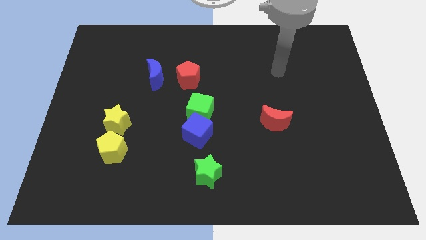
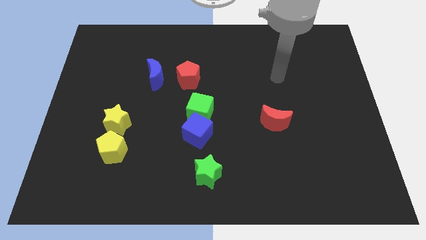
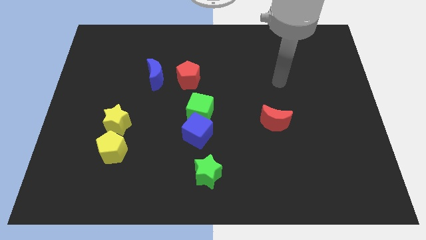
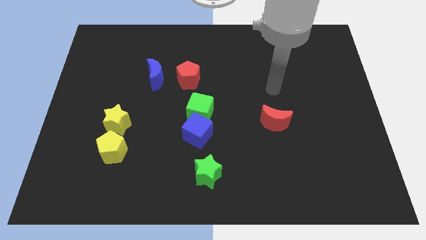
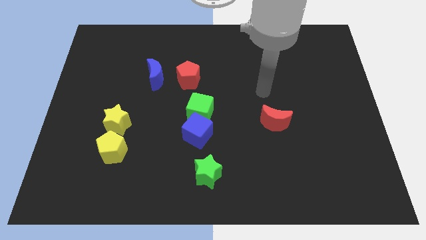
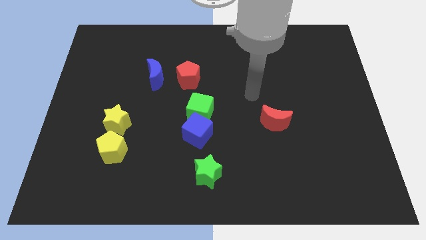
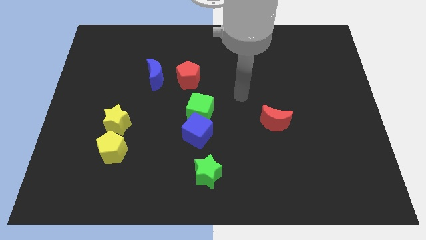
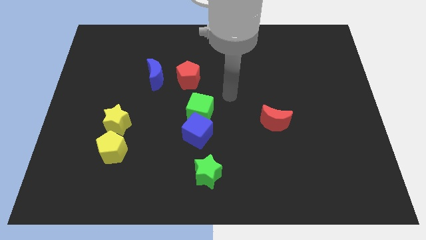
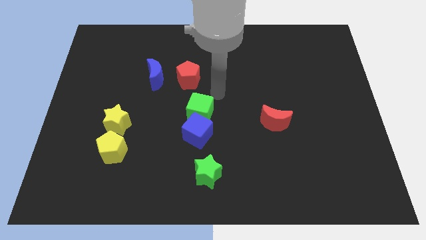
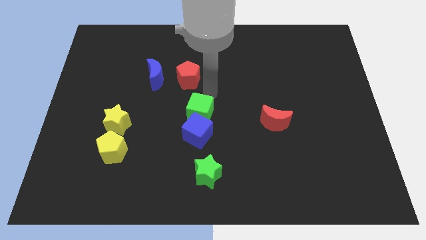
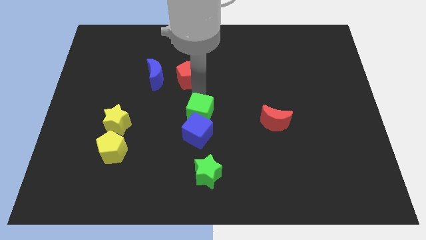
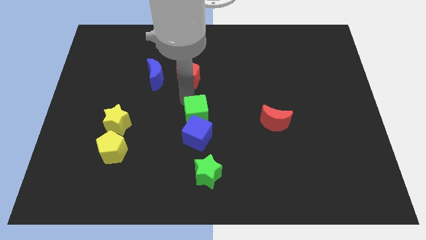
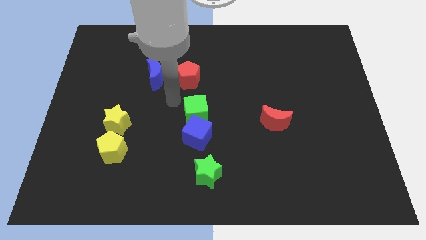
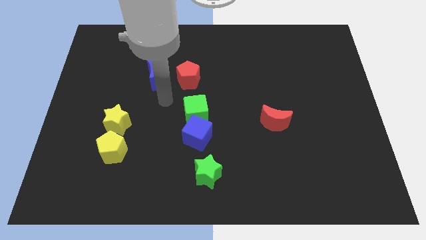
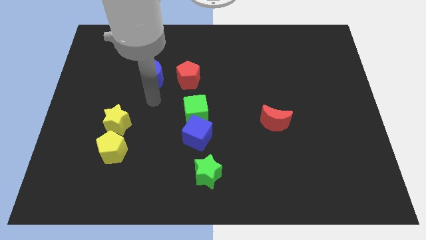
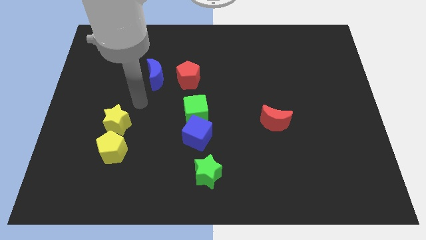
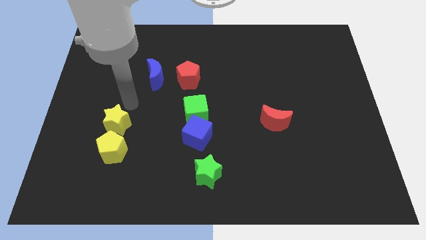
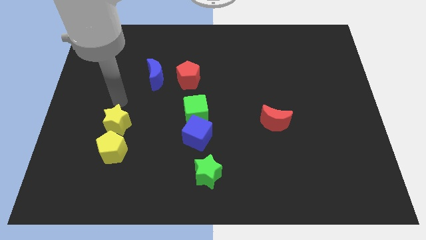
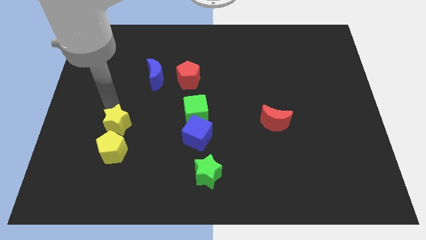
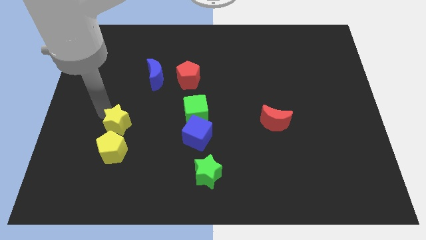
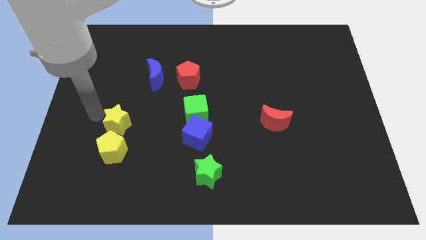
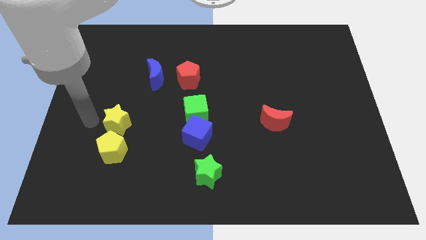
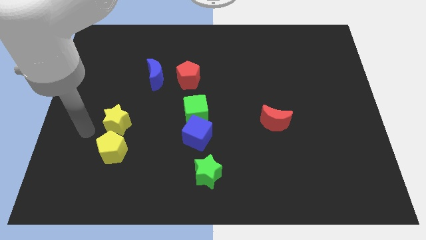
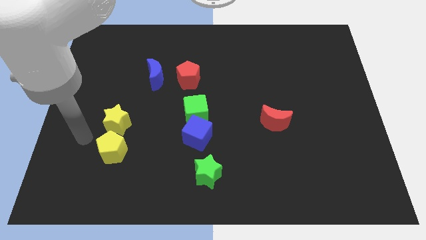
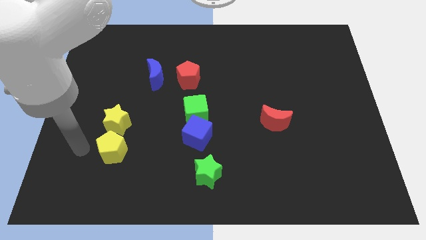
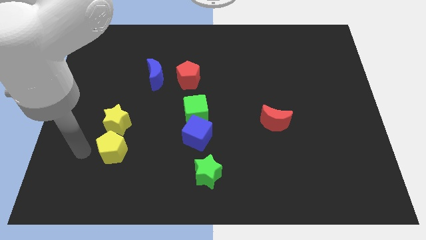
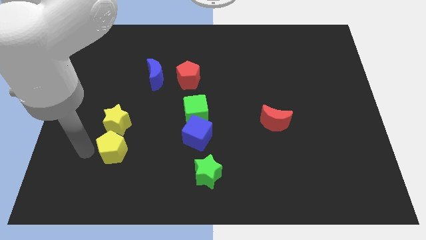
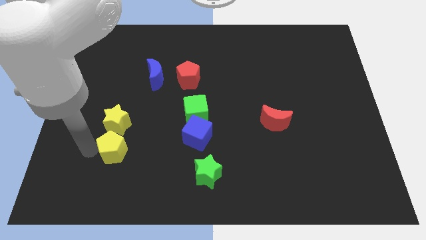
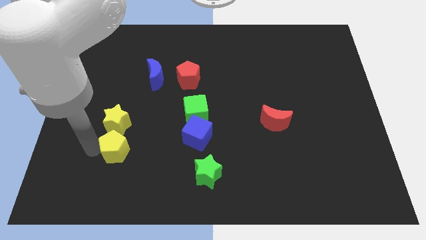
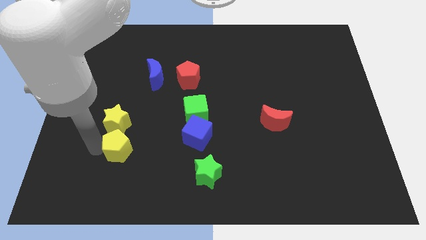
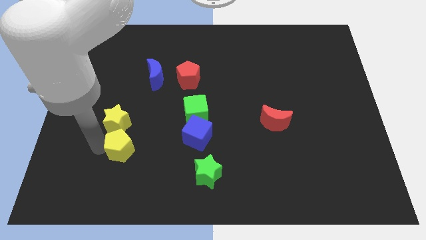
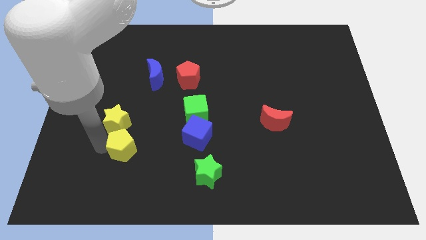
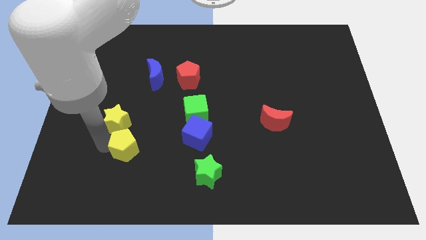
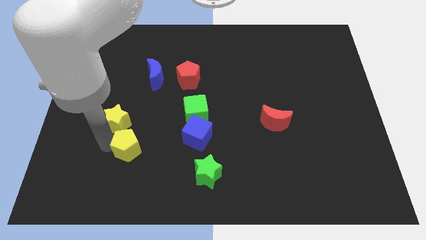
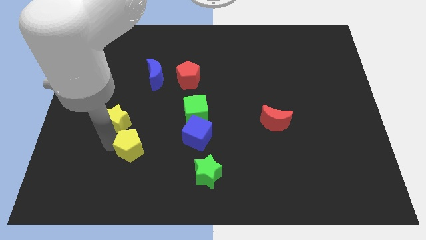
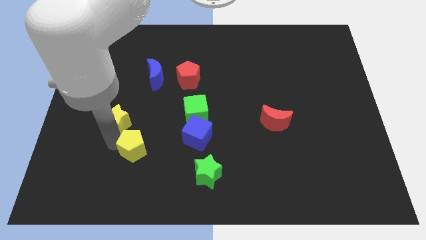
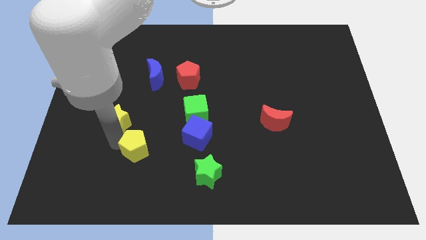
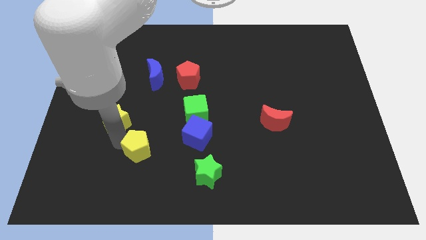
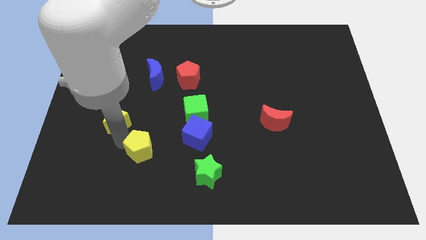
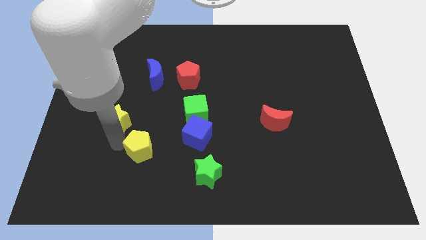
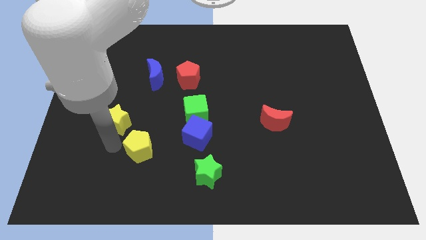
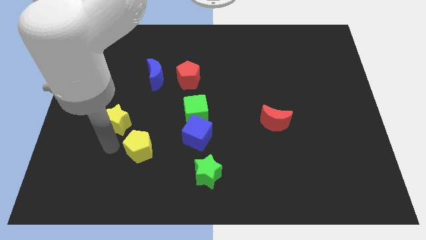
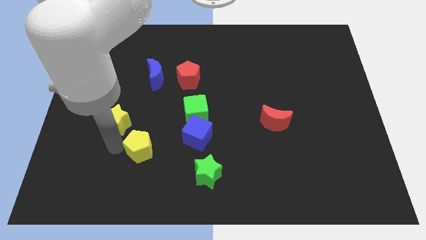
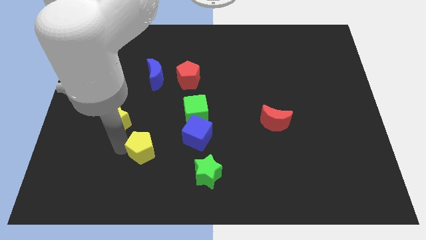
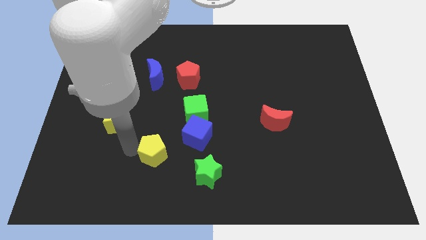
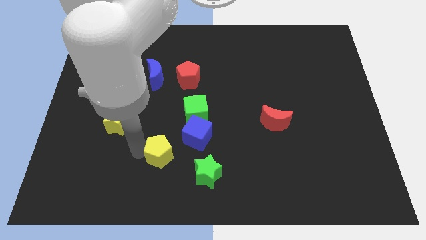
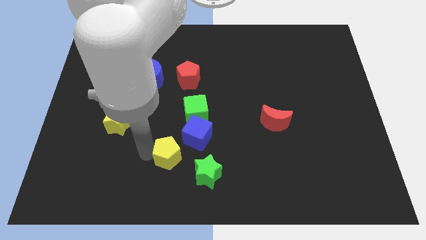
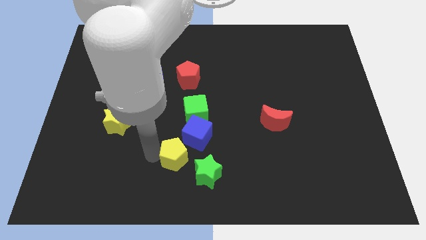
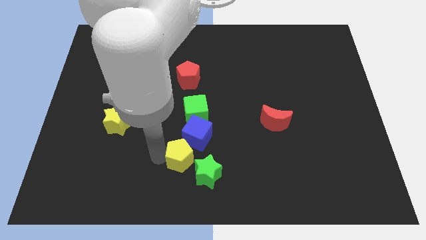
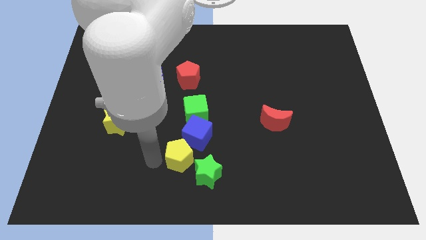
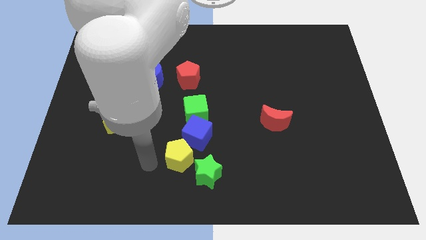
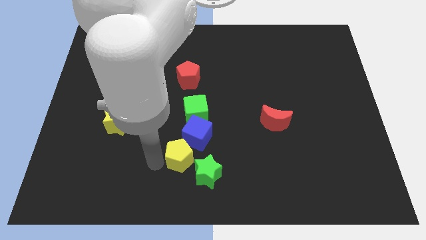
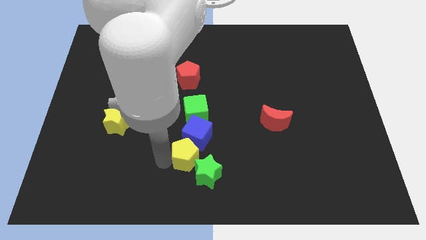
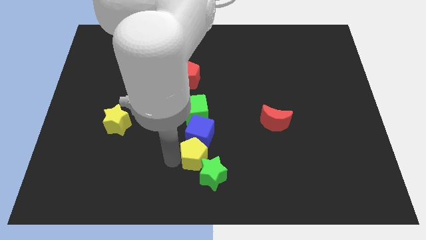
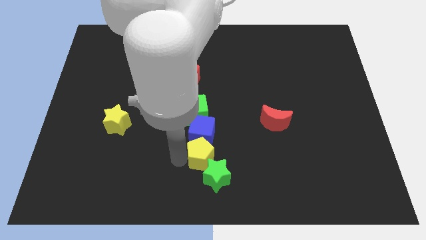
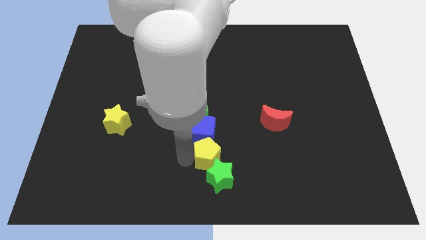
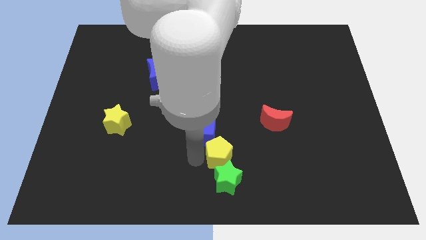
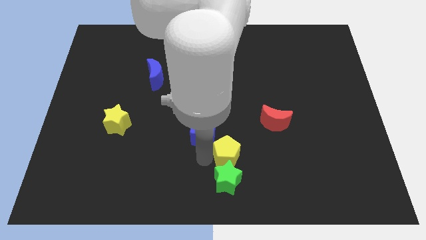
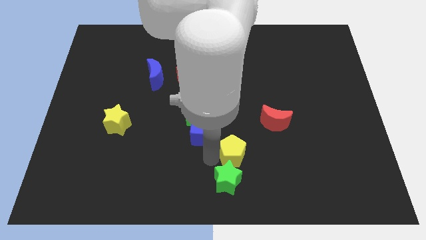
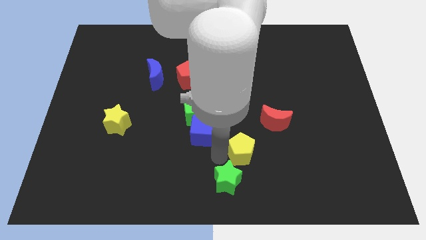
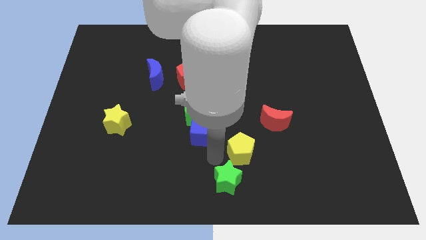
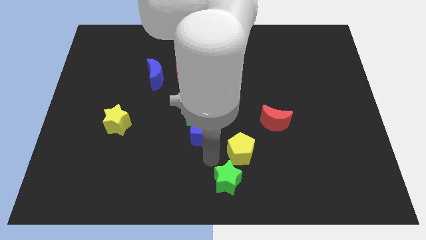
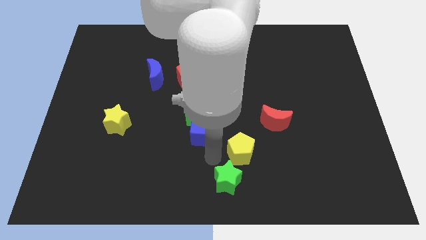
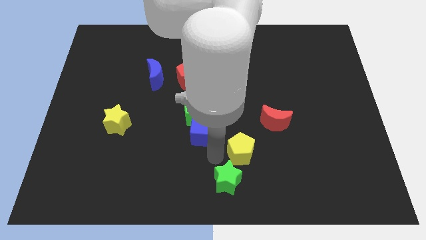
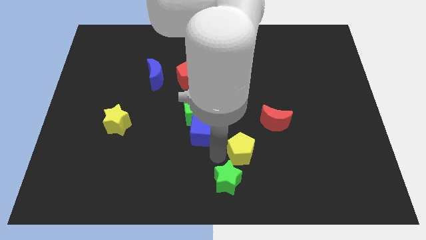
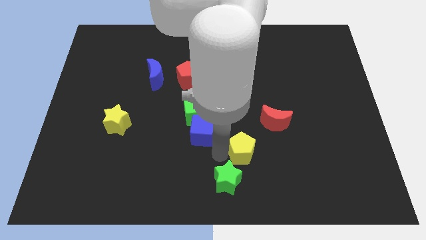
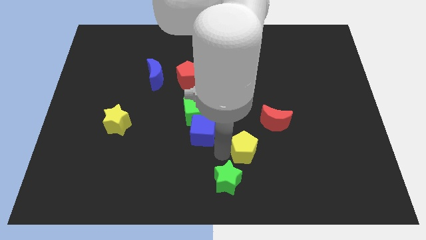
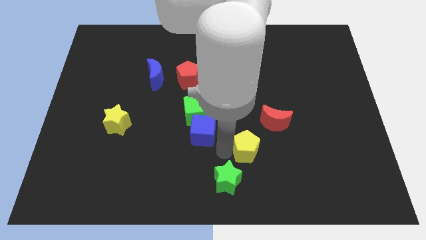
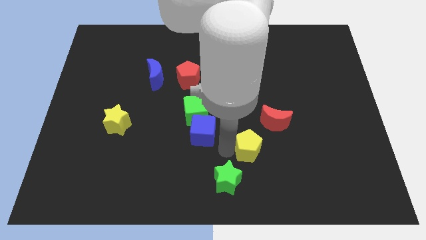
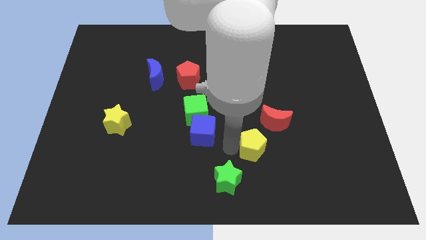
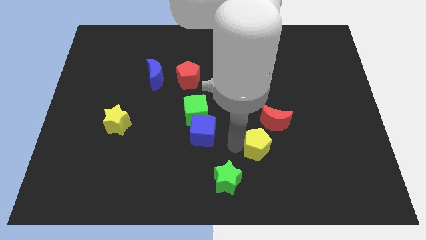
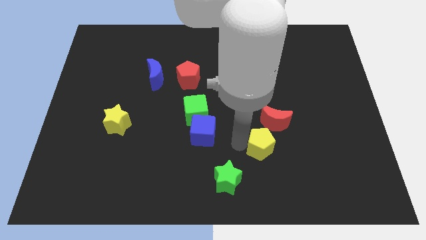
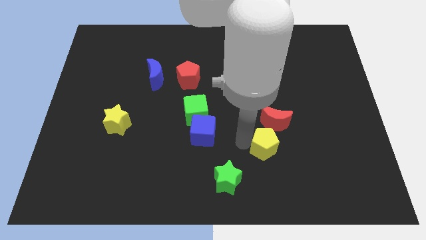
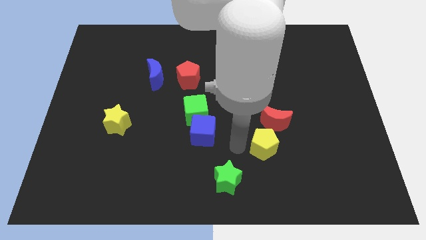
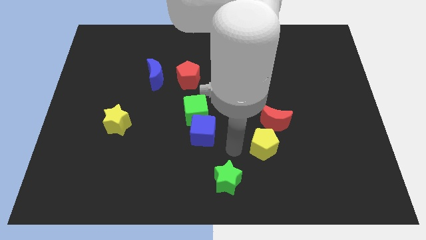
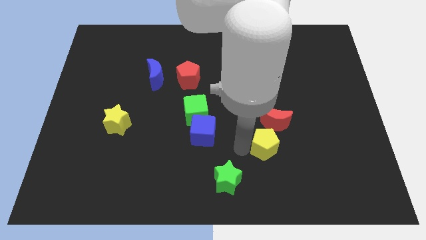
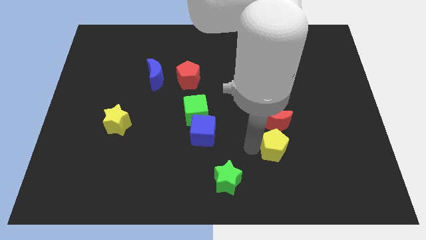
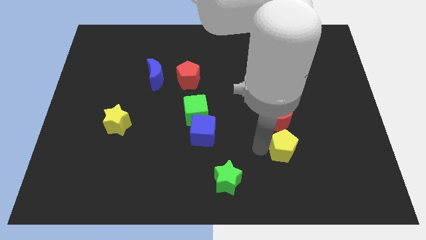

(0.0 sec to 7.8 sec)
move the yellow pentagon to the bottom right of the red moon
